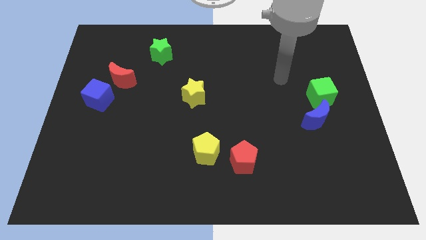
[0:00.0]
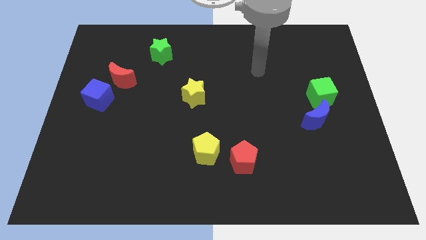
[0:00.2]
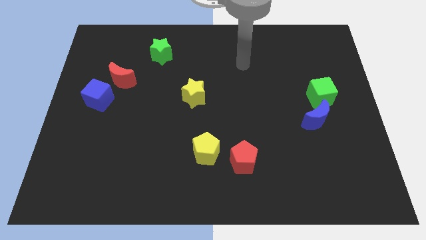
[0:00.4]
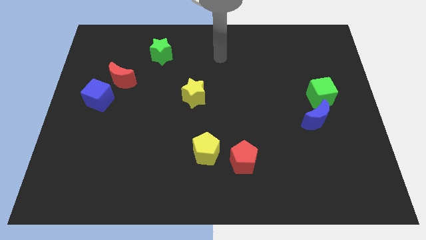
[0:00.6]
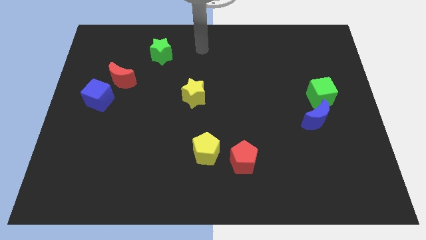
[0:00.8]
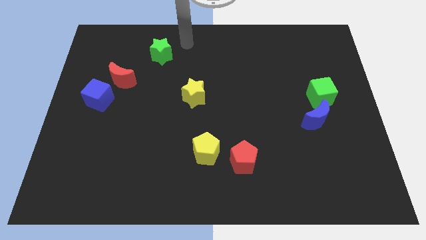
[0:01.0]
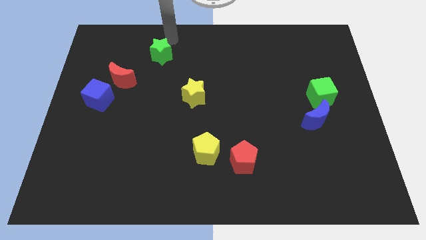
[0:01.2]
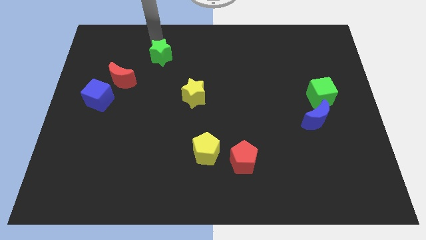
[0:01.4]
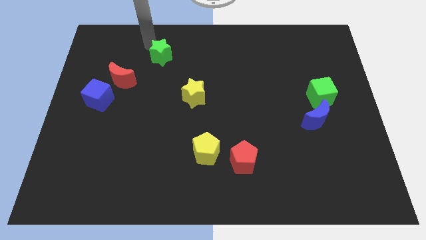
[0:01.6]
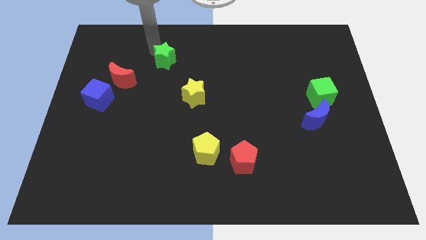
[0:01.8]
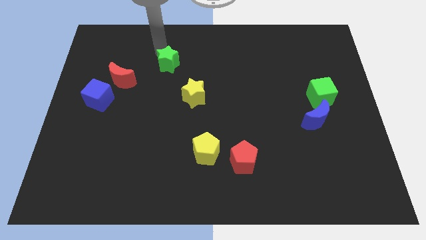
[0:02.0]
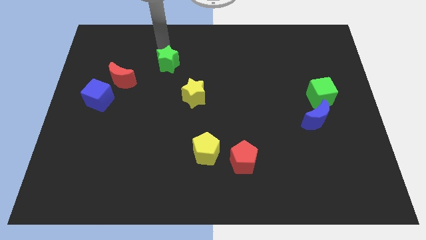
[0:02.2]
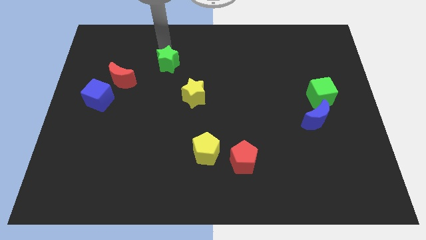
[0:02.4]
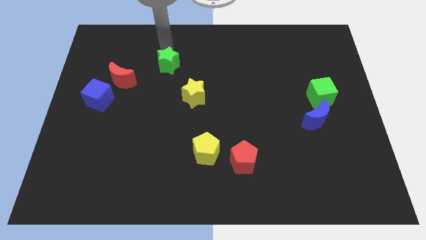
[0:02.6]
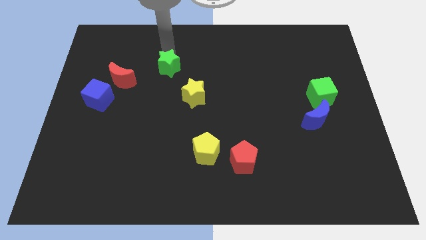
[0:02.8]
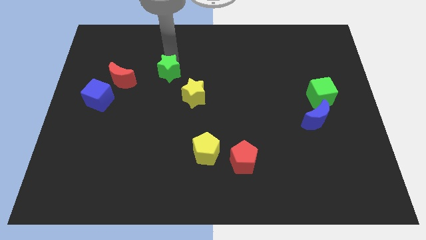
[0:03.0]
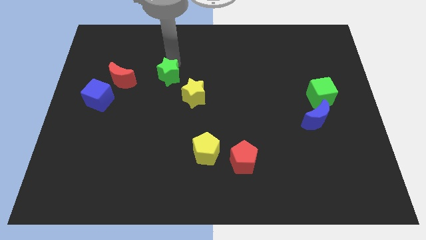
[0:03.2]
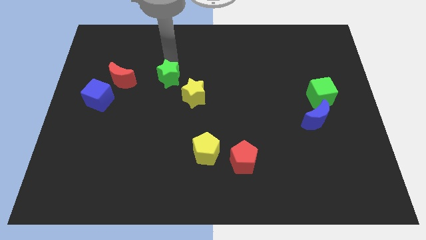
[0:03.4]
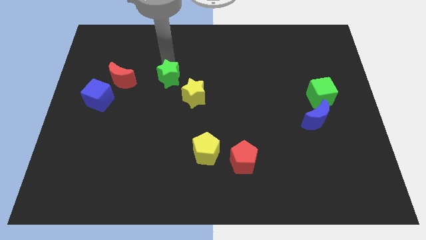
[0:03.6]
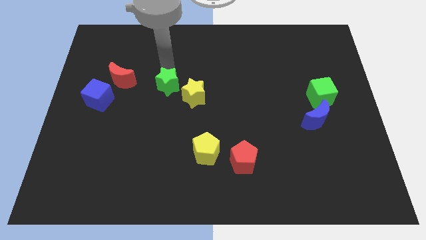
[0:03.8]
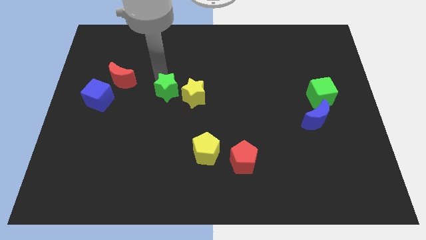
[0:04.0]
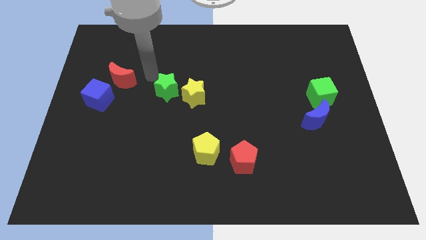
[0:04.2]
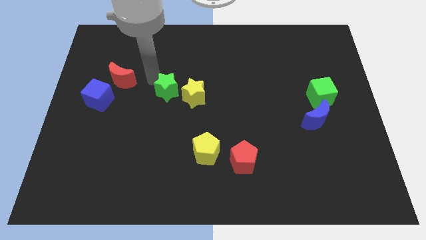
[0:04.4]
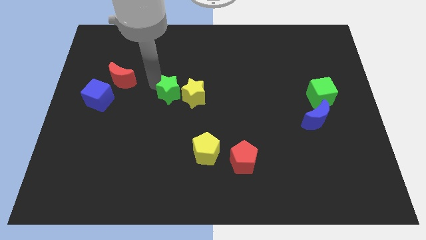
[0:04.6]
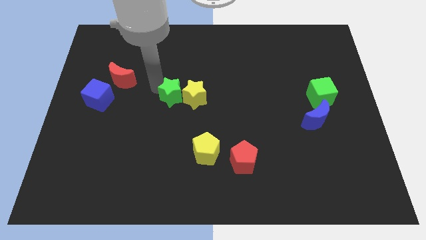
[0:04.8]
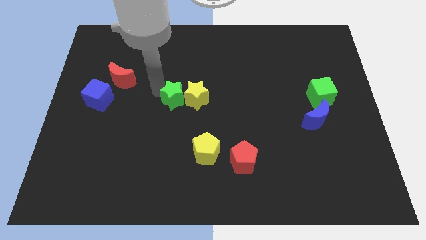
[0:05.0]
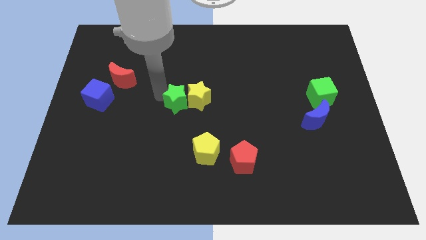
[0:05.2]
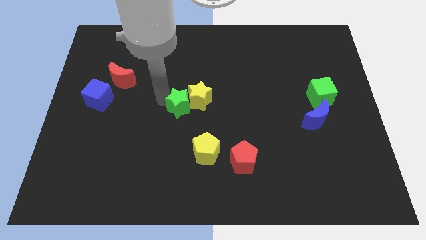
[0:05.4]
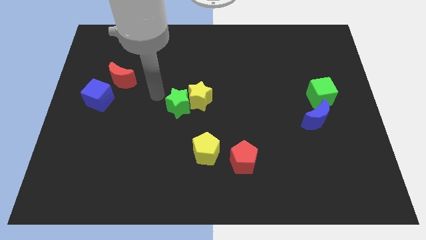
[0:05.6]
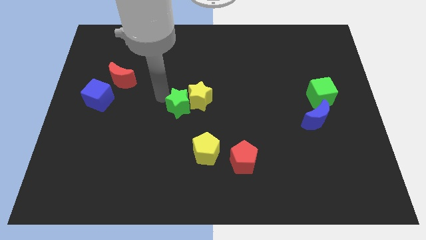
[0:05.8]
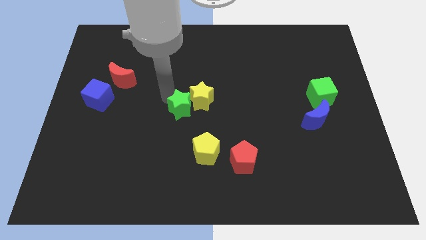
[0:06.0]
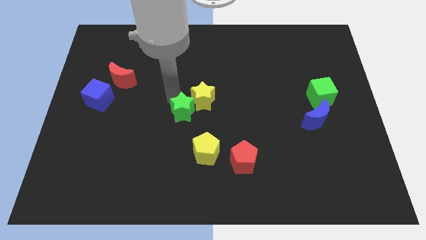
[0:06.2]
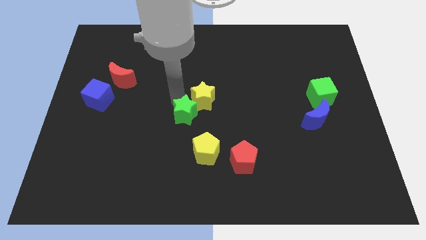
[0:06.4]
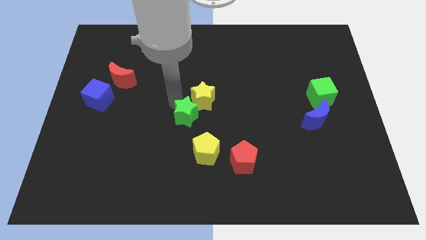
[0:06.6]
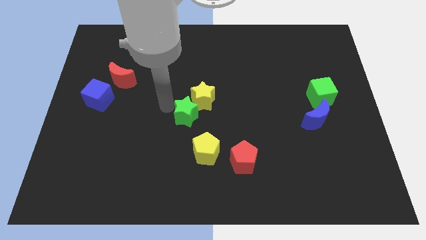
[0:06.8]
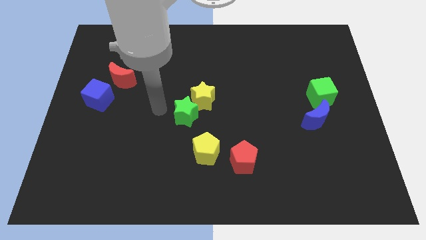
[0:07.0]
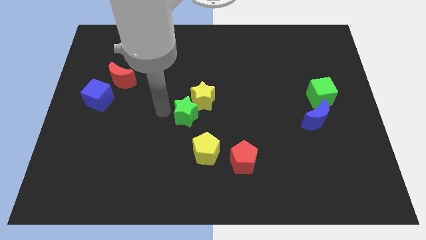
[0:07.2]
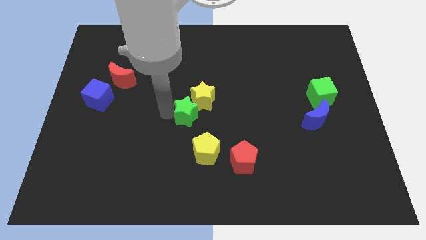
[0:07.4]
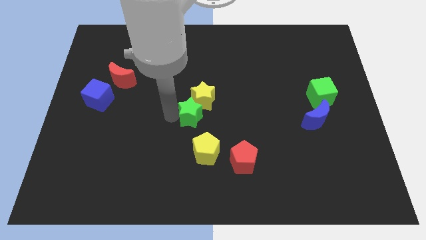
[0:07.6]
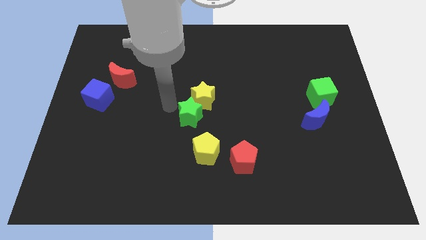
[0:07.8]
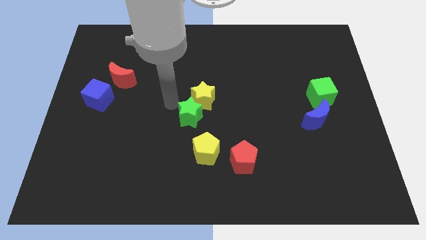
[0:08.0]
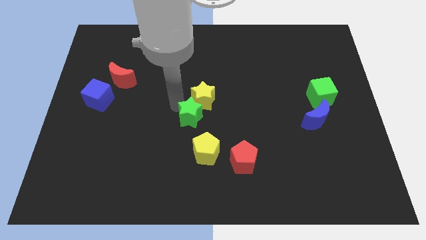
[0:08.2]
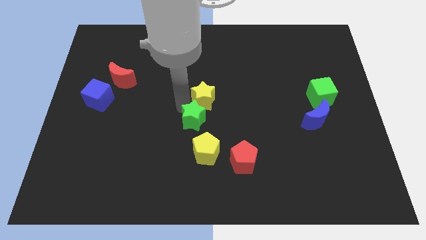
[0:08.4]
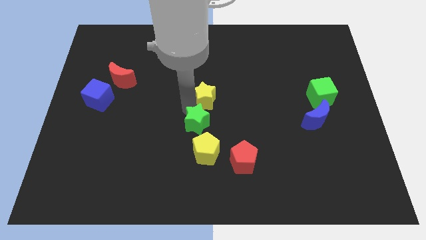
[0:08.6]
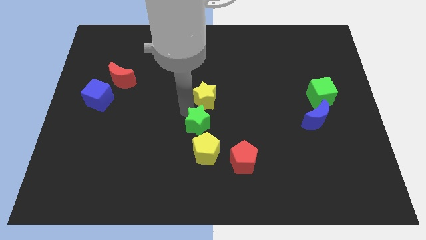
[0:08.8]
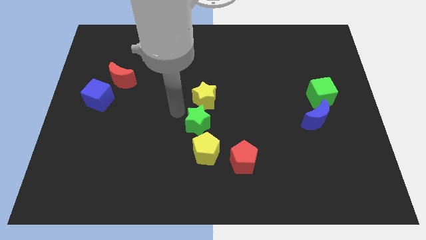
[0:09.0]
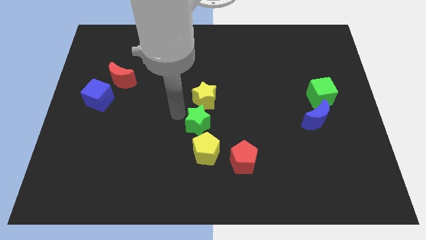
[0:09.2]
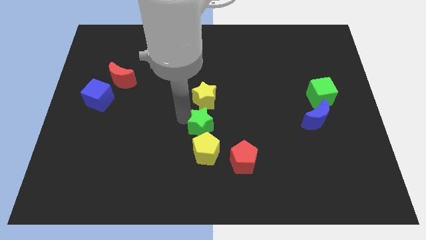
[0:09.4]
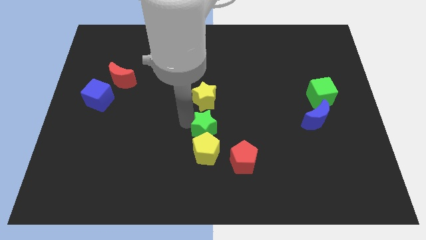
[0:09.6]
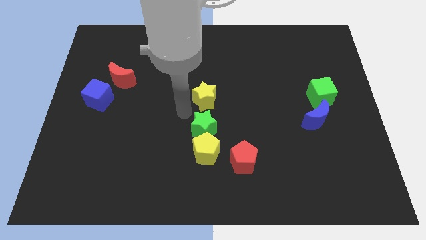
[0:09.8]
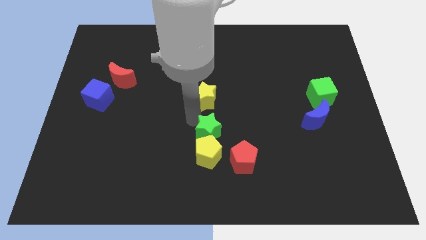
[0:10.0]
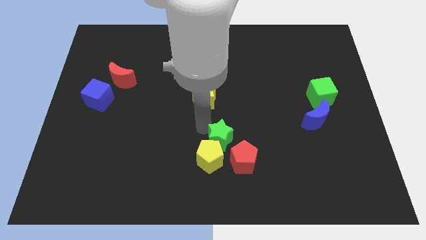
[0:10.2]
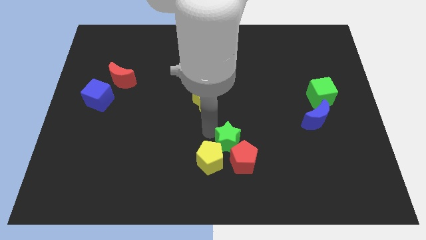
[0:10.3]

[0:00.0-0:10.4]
slide the green star next to the red pentagon

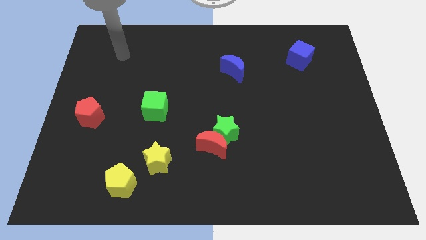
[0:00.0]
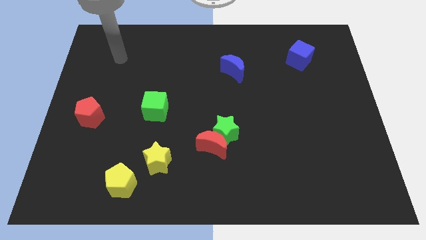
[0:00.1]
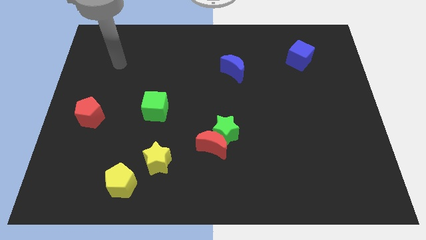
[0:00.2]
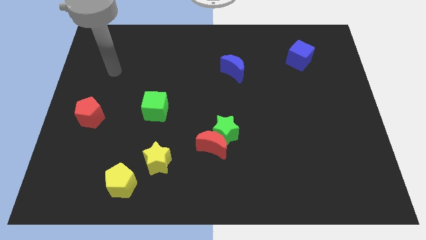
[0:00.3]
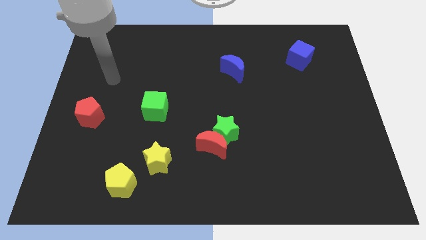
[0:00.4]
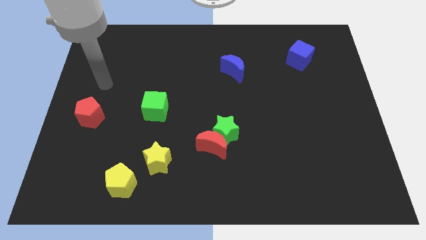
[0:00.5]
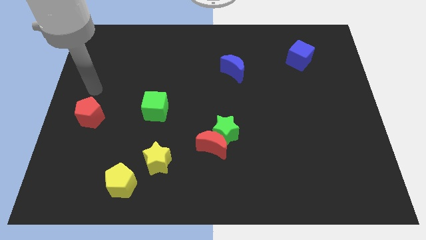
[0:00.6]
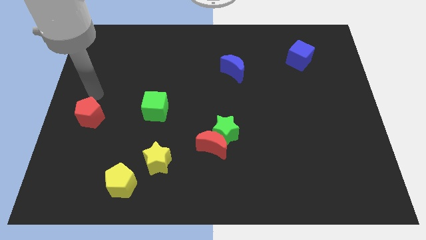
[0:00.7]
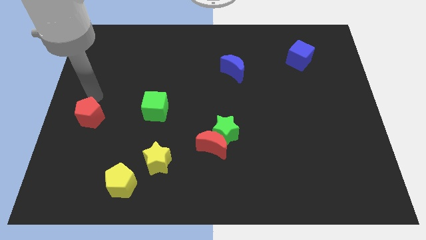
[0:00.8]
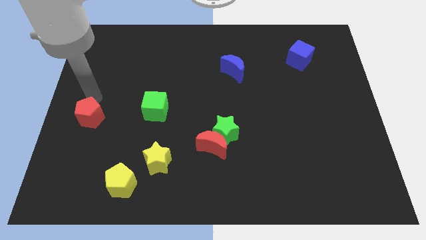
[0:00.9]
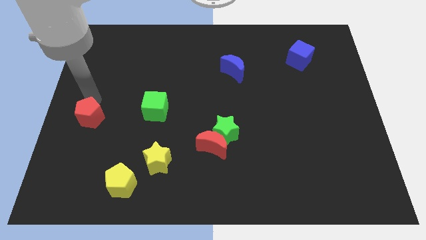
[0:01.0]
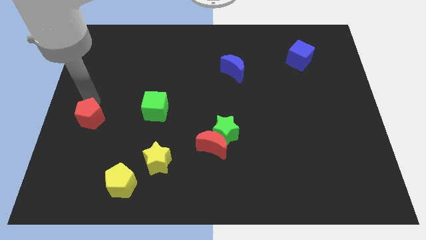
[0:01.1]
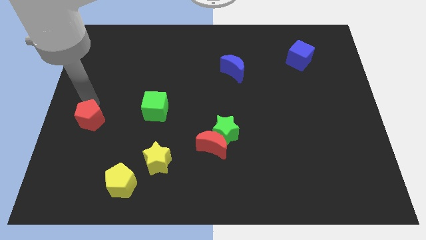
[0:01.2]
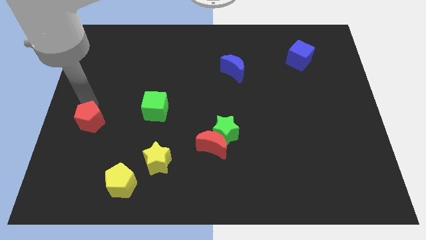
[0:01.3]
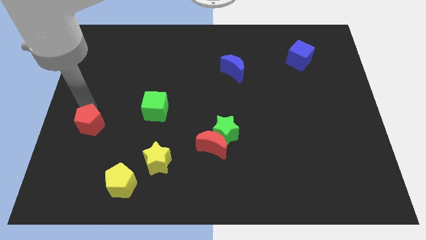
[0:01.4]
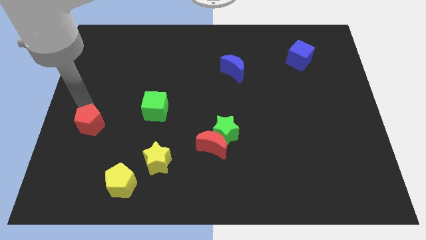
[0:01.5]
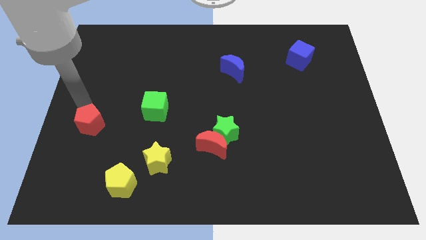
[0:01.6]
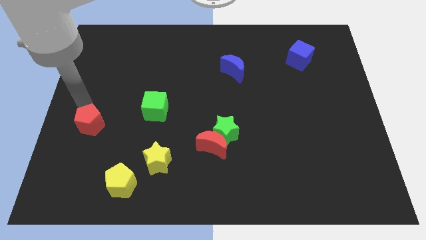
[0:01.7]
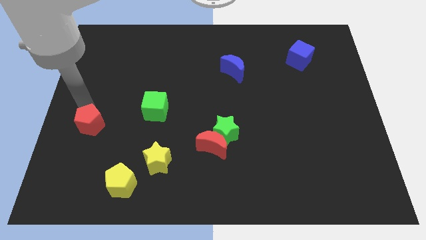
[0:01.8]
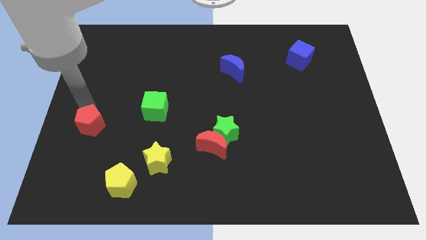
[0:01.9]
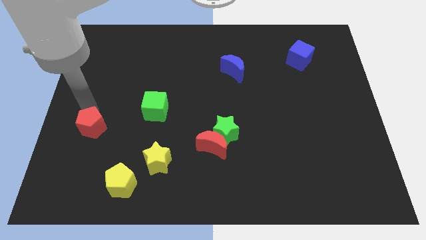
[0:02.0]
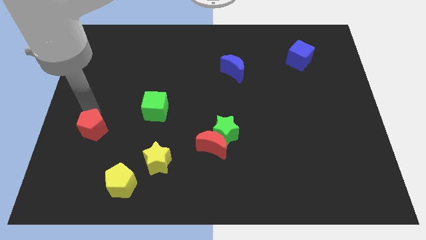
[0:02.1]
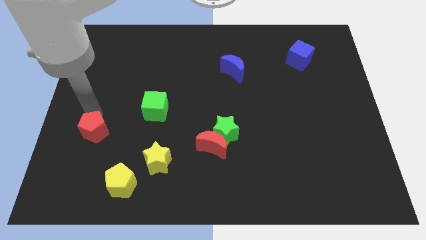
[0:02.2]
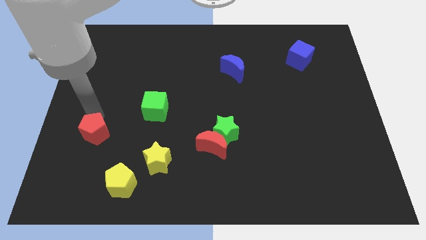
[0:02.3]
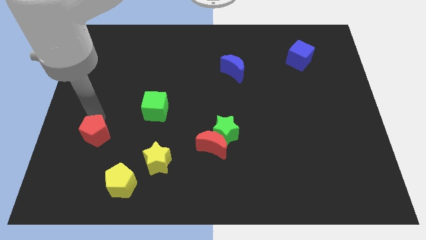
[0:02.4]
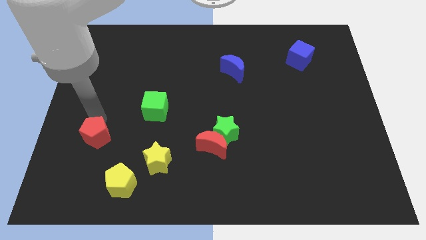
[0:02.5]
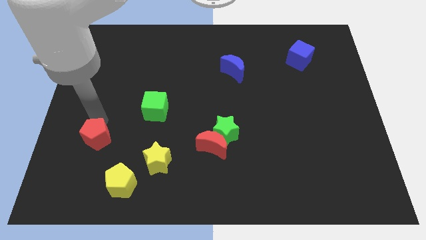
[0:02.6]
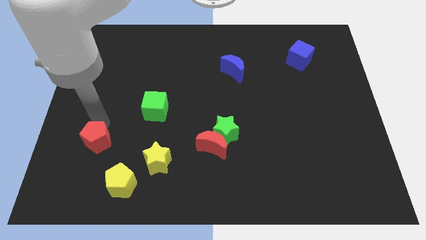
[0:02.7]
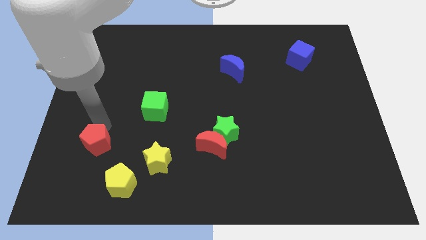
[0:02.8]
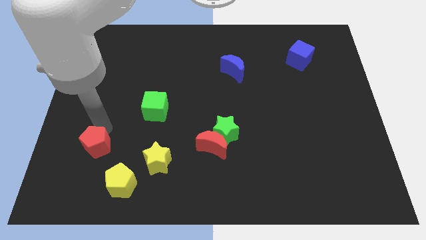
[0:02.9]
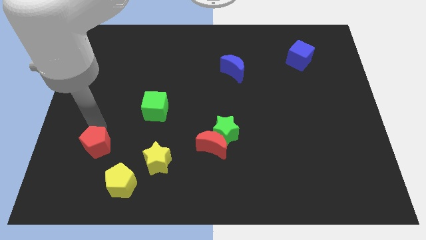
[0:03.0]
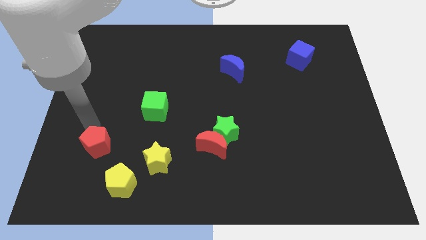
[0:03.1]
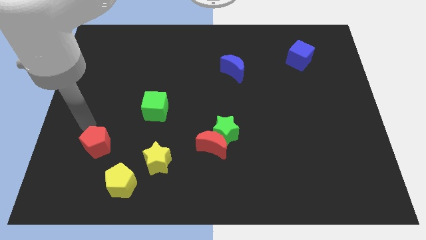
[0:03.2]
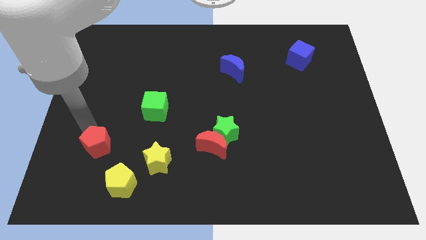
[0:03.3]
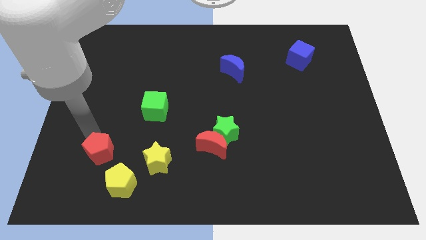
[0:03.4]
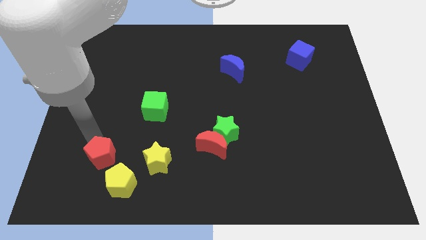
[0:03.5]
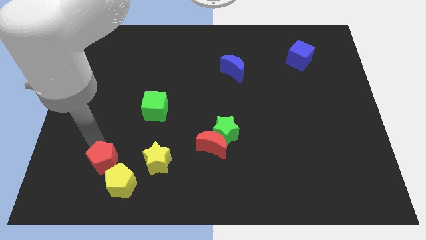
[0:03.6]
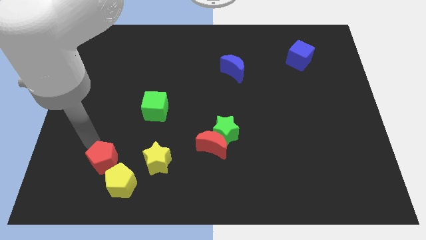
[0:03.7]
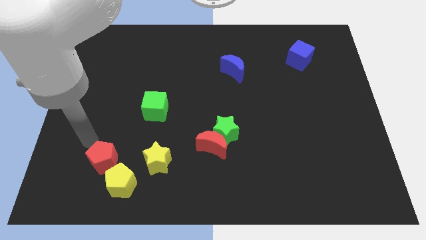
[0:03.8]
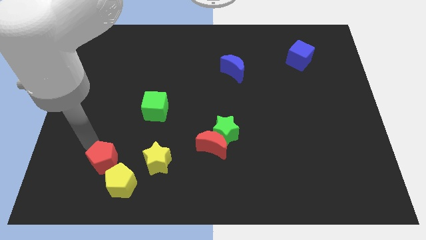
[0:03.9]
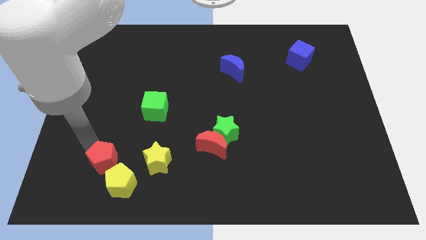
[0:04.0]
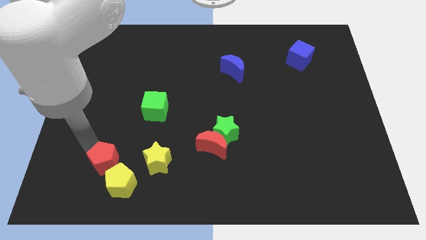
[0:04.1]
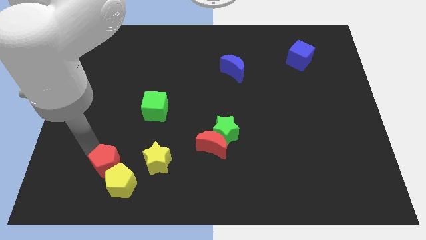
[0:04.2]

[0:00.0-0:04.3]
put the red pentagon towards the yellow pentagon
